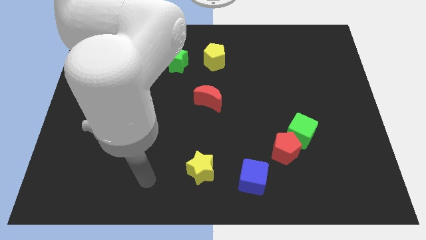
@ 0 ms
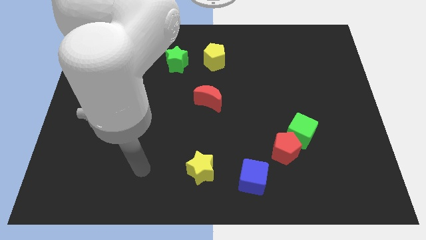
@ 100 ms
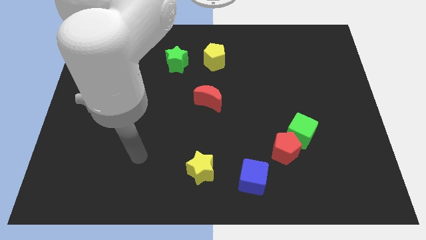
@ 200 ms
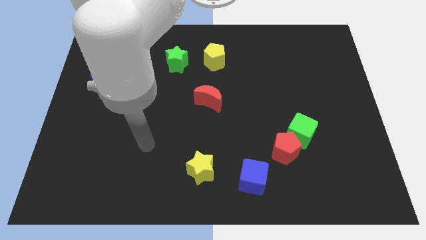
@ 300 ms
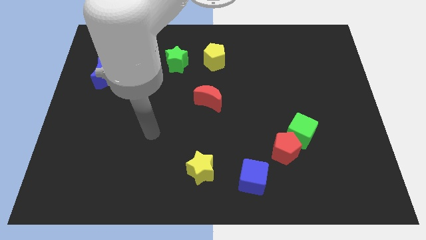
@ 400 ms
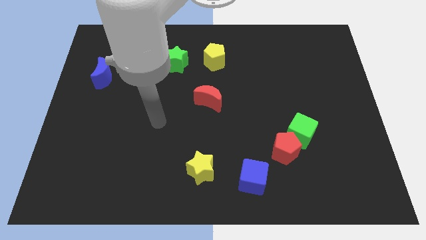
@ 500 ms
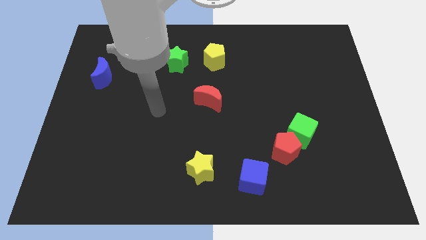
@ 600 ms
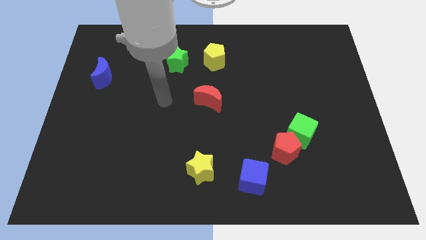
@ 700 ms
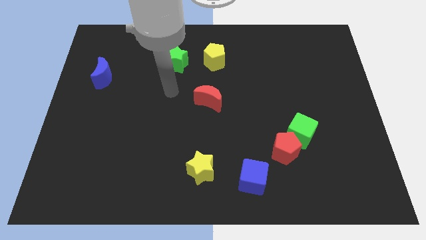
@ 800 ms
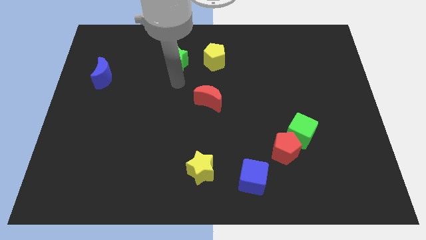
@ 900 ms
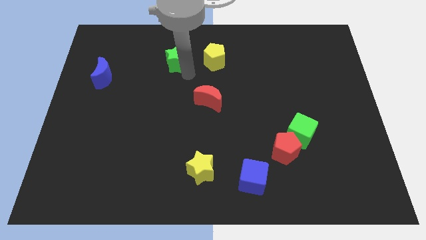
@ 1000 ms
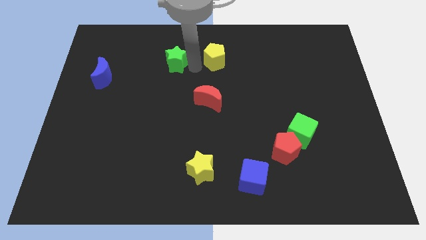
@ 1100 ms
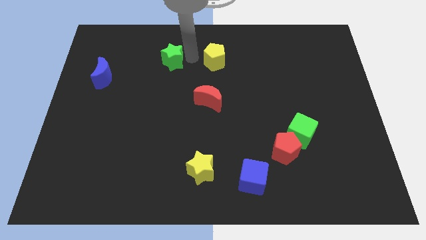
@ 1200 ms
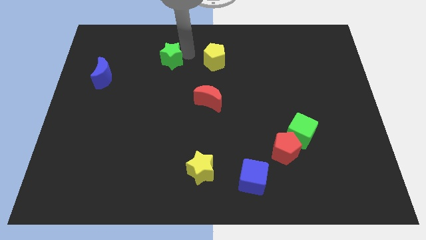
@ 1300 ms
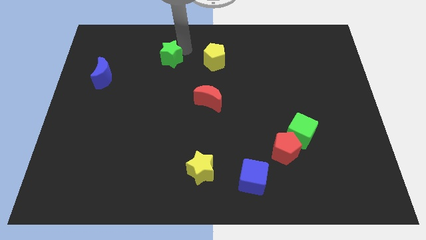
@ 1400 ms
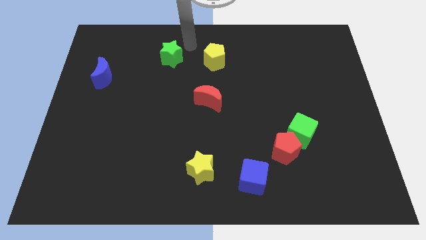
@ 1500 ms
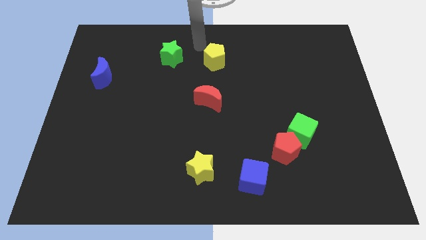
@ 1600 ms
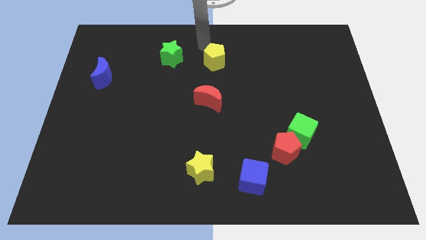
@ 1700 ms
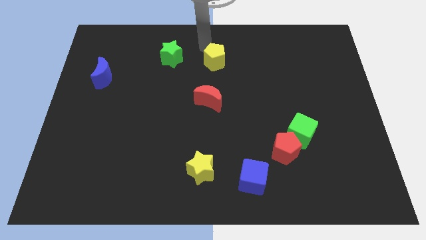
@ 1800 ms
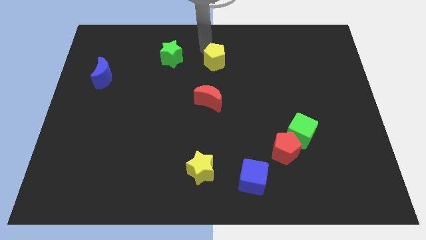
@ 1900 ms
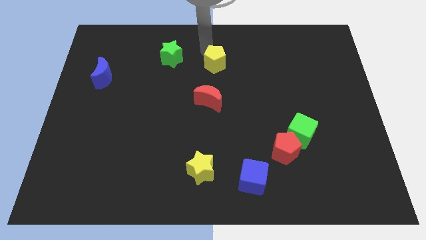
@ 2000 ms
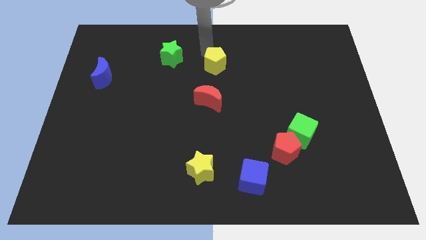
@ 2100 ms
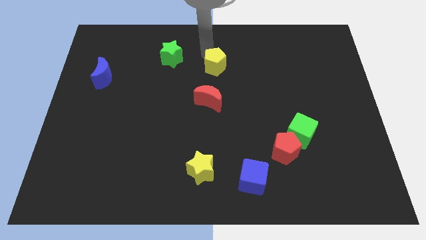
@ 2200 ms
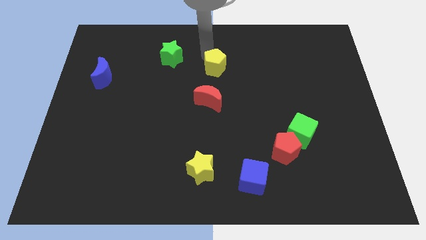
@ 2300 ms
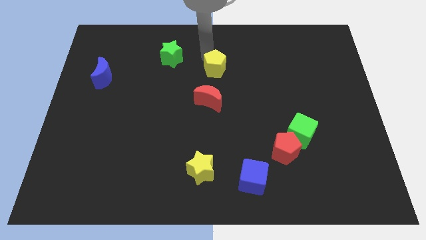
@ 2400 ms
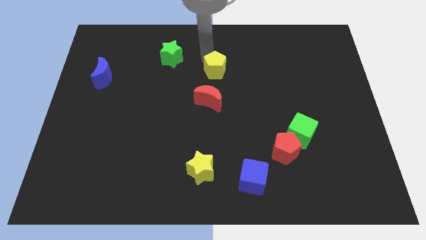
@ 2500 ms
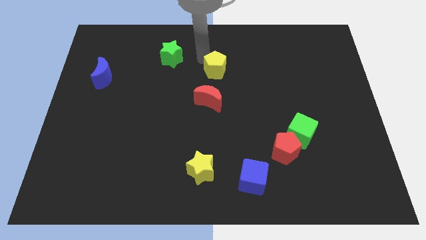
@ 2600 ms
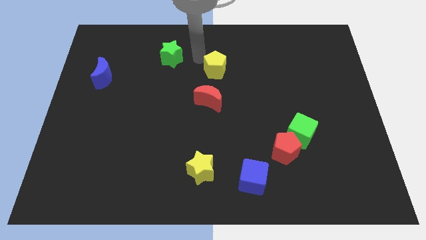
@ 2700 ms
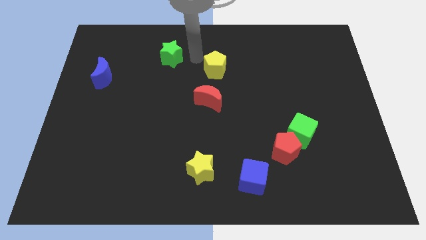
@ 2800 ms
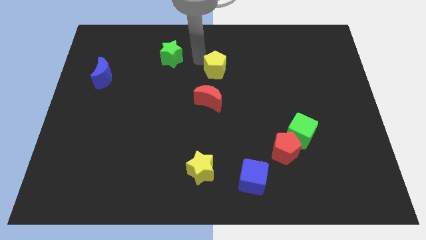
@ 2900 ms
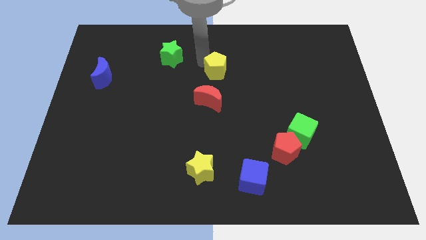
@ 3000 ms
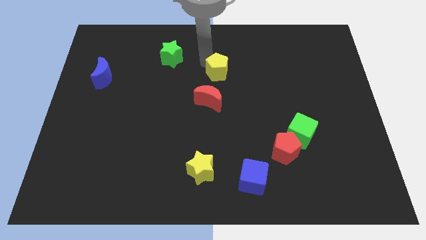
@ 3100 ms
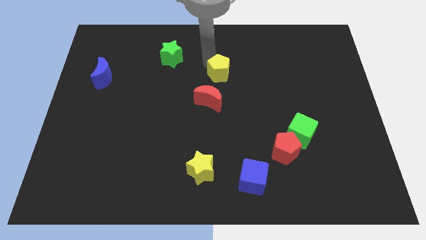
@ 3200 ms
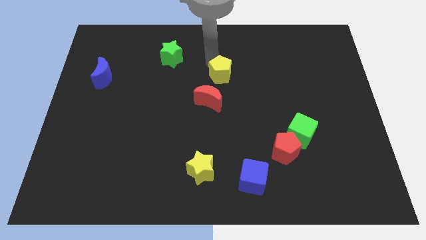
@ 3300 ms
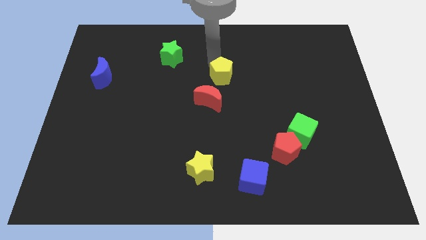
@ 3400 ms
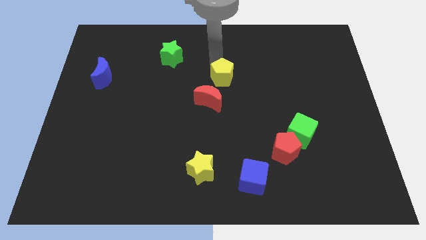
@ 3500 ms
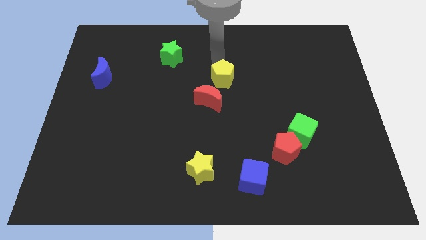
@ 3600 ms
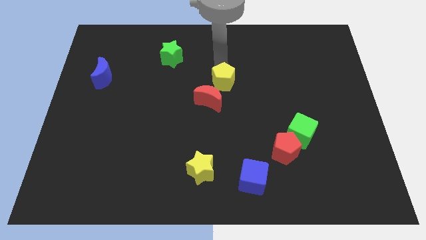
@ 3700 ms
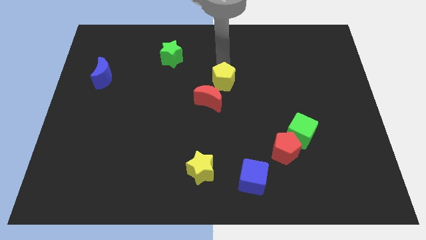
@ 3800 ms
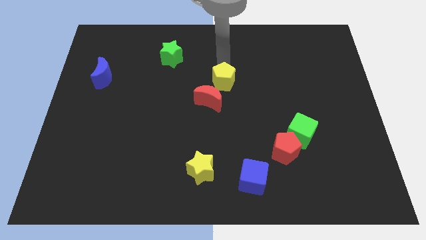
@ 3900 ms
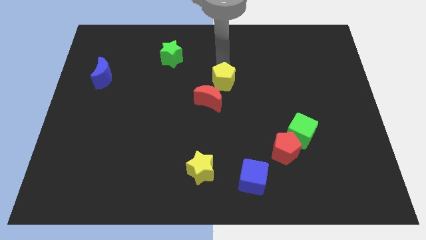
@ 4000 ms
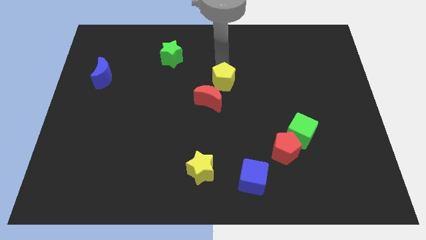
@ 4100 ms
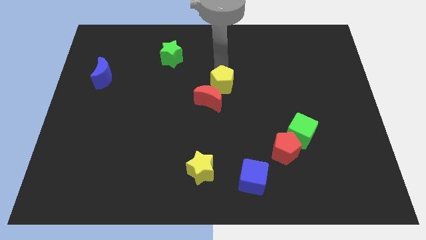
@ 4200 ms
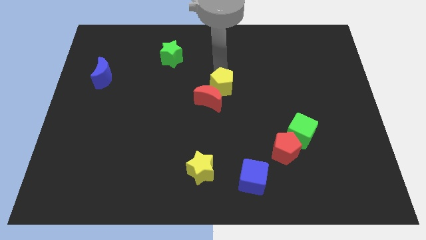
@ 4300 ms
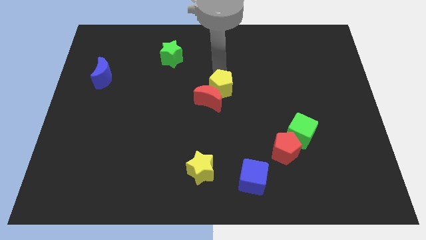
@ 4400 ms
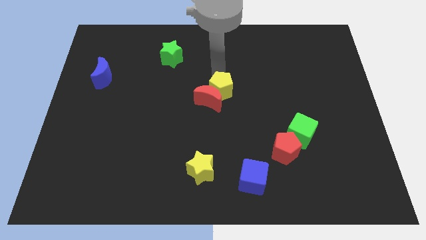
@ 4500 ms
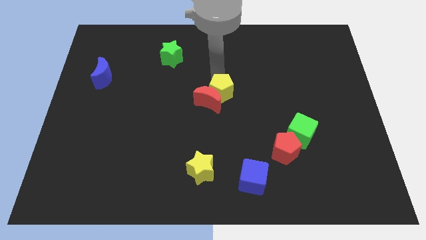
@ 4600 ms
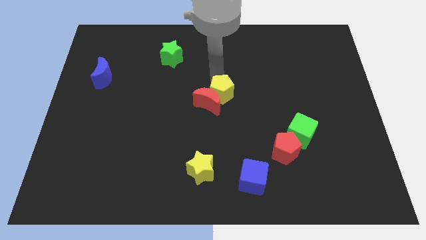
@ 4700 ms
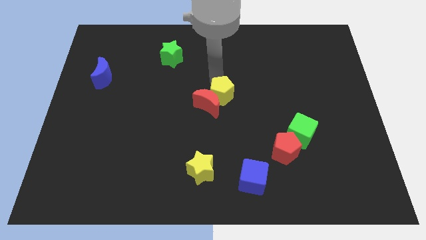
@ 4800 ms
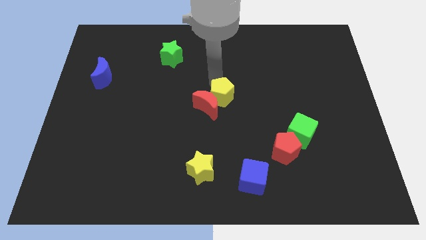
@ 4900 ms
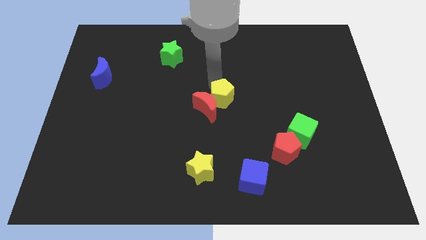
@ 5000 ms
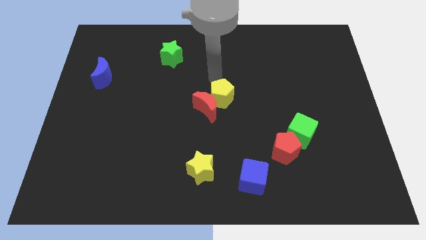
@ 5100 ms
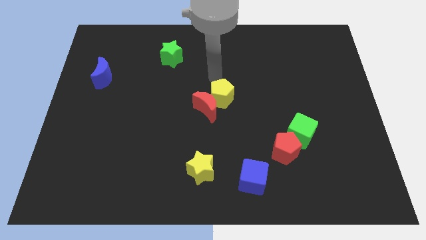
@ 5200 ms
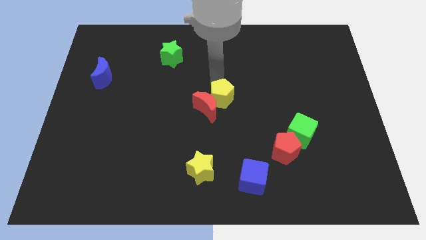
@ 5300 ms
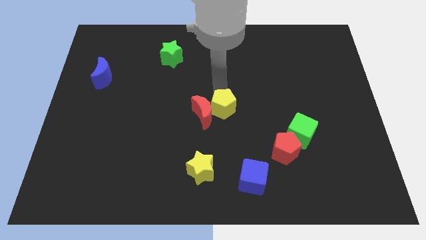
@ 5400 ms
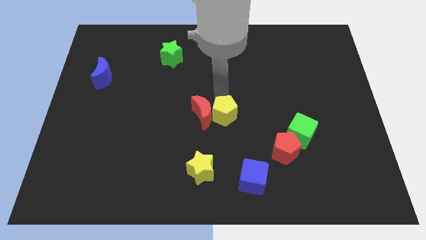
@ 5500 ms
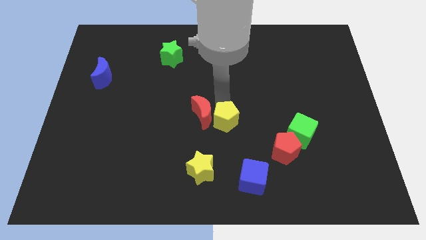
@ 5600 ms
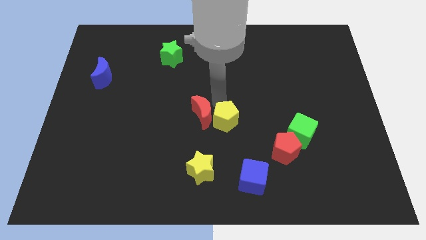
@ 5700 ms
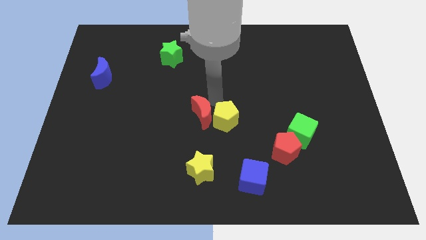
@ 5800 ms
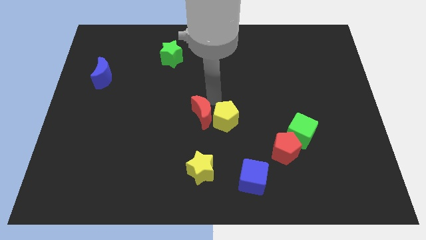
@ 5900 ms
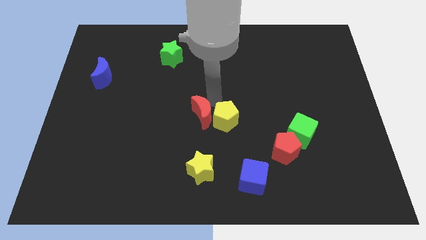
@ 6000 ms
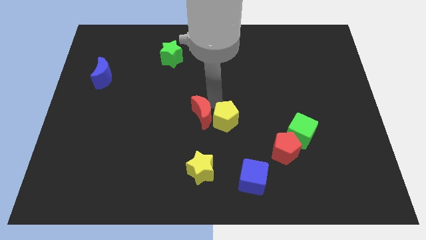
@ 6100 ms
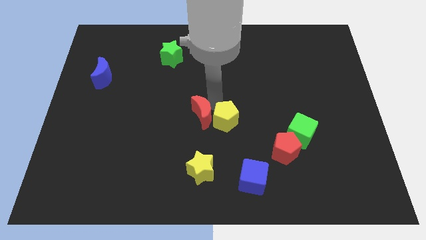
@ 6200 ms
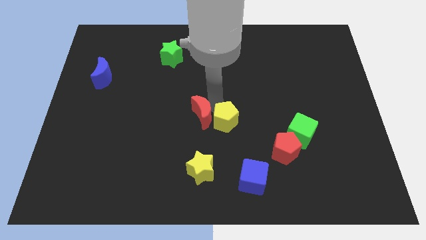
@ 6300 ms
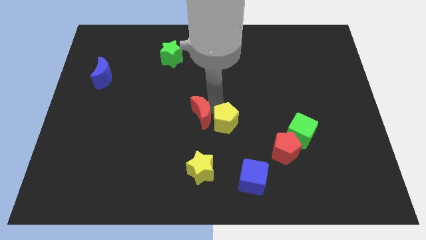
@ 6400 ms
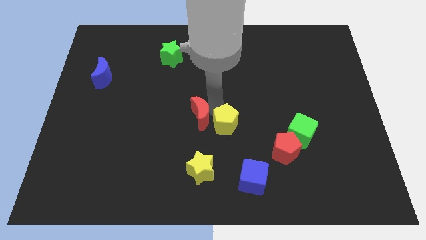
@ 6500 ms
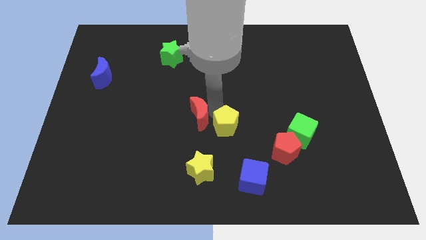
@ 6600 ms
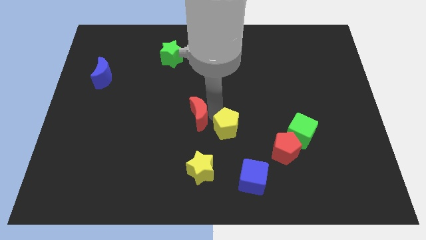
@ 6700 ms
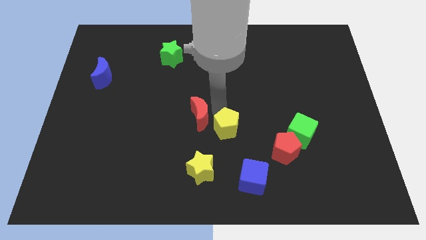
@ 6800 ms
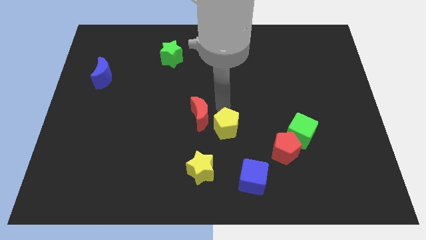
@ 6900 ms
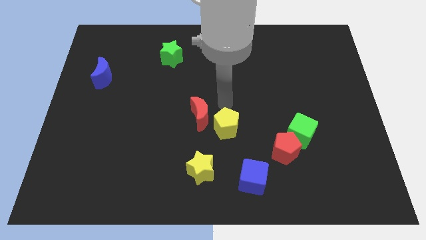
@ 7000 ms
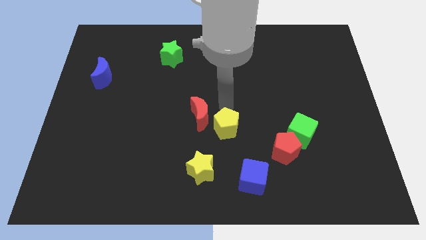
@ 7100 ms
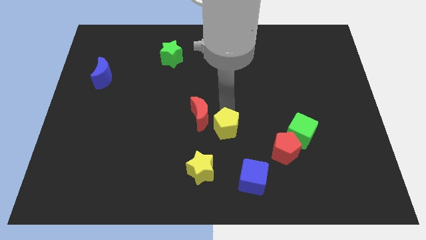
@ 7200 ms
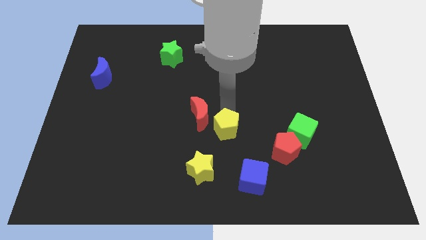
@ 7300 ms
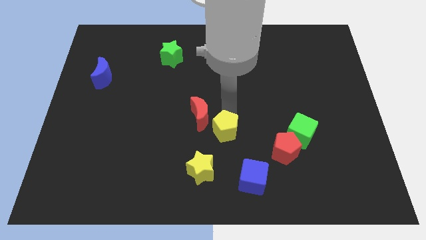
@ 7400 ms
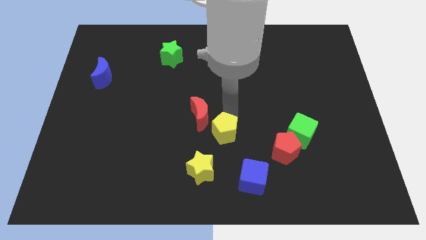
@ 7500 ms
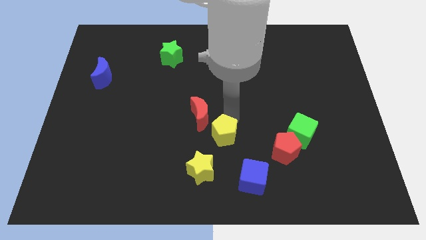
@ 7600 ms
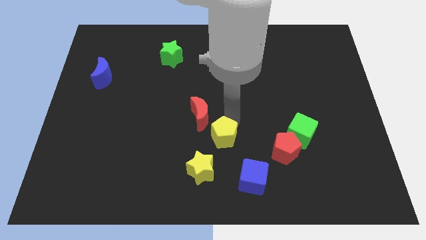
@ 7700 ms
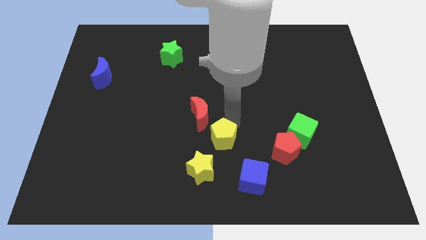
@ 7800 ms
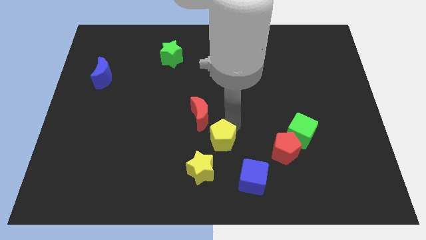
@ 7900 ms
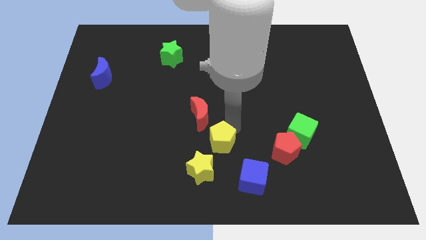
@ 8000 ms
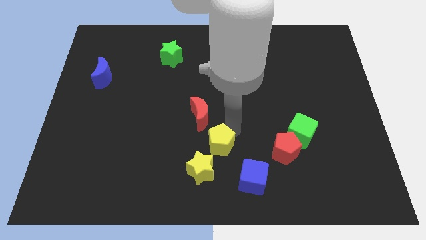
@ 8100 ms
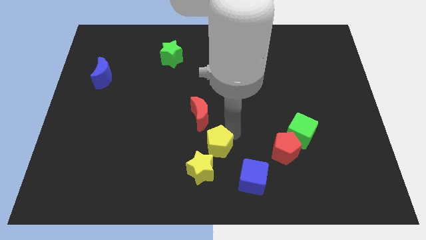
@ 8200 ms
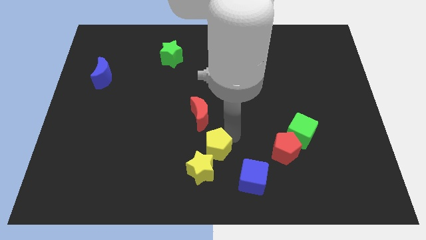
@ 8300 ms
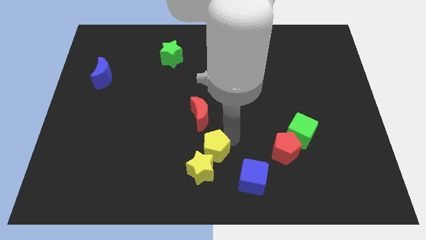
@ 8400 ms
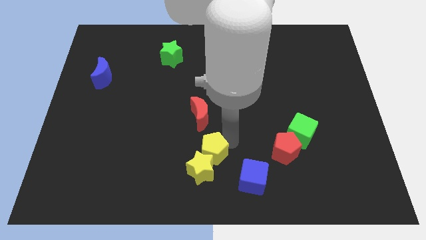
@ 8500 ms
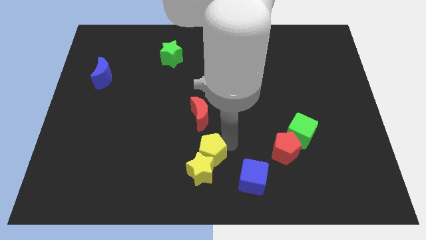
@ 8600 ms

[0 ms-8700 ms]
push the yellow pentagon to the bottom
